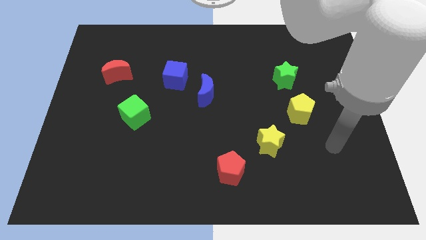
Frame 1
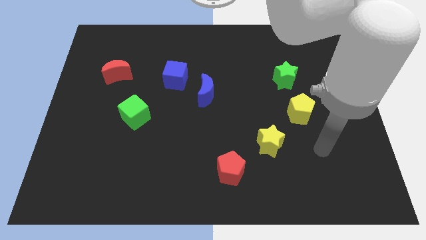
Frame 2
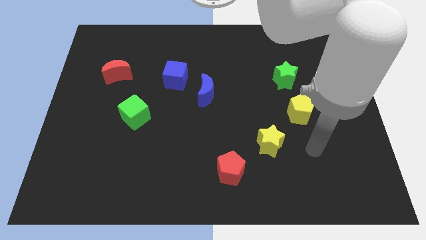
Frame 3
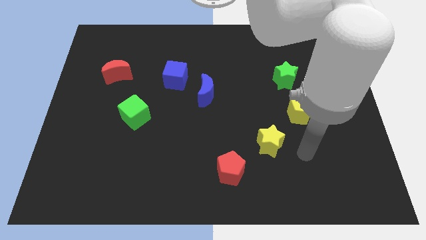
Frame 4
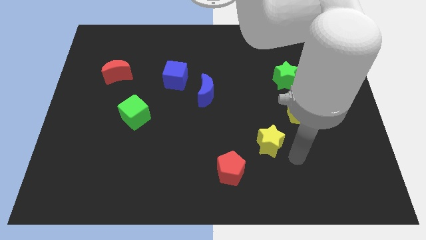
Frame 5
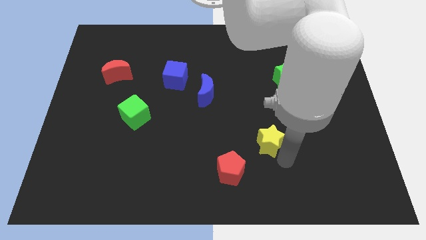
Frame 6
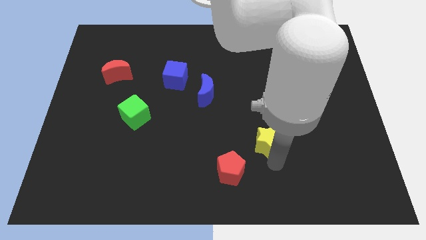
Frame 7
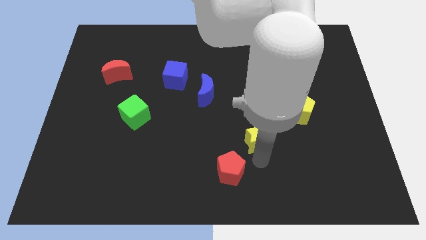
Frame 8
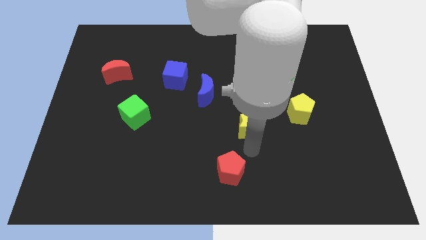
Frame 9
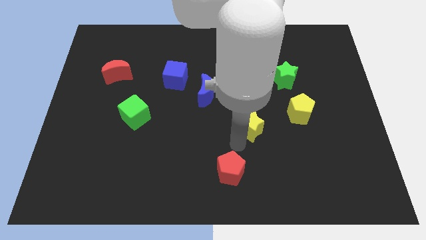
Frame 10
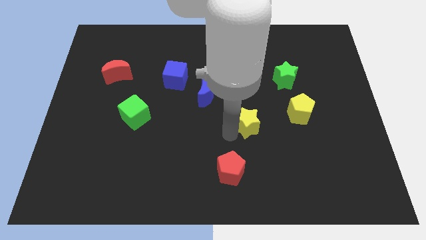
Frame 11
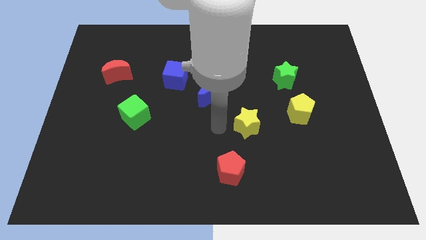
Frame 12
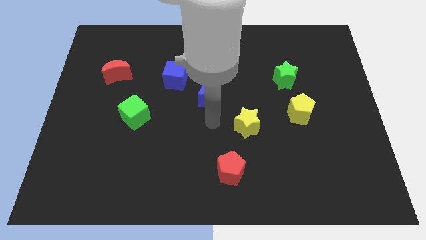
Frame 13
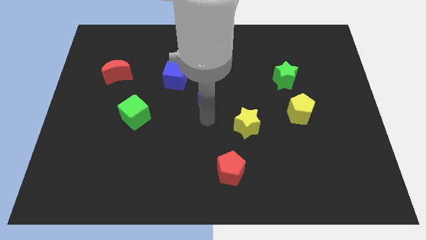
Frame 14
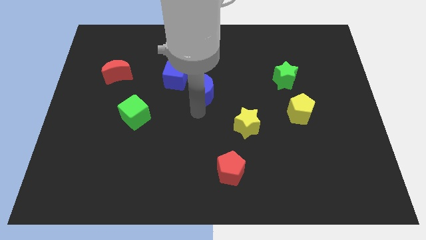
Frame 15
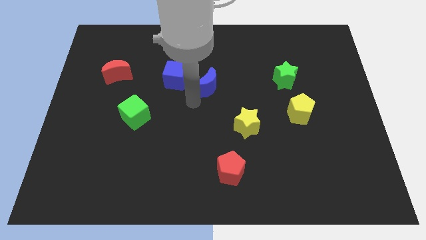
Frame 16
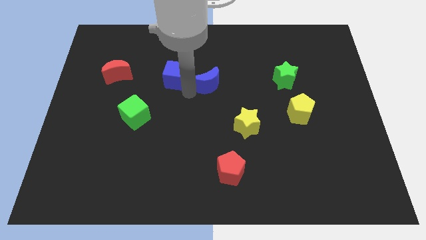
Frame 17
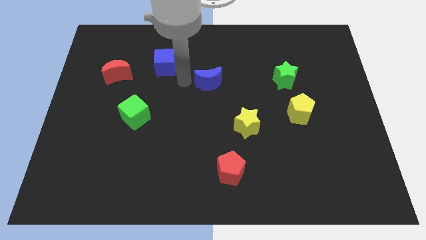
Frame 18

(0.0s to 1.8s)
pull the blue moon apart from the blue cube

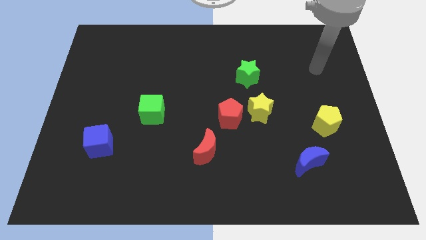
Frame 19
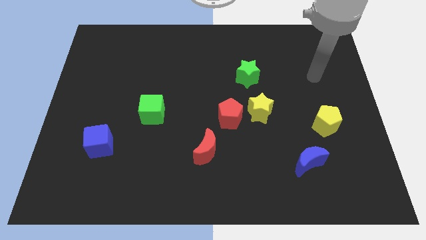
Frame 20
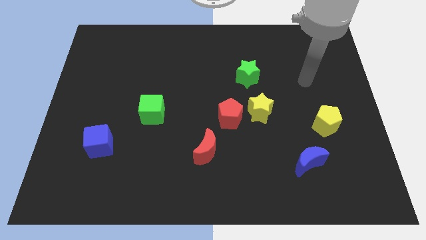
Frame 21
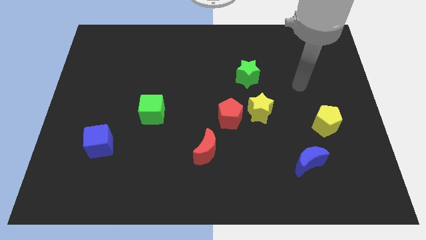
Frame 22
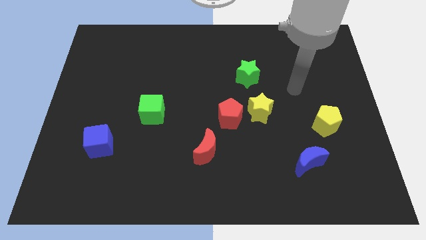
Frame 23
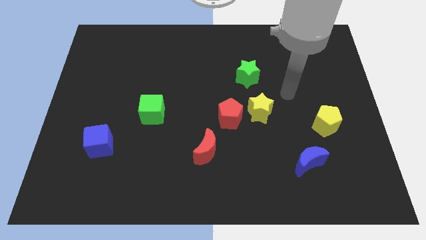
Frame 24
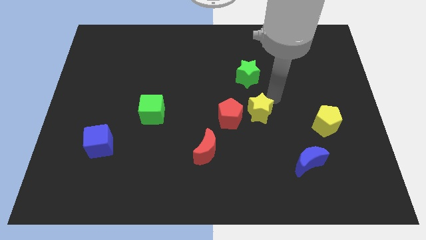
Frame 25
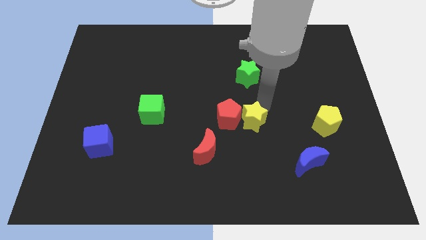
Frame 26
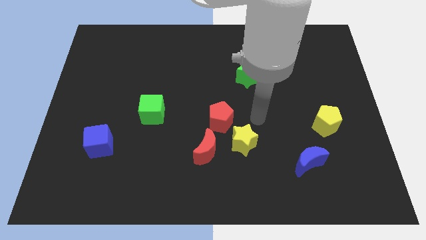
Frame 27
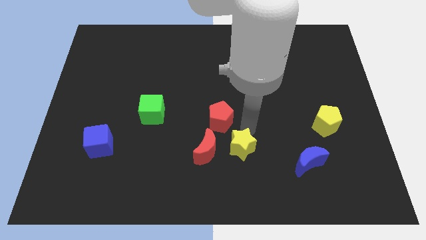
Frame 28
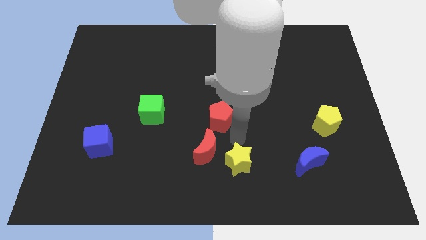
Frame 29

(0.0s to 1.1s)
separate the red pentagon from the yellow star

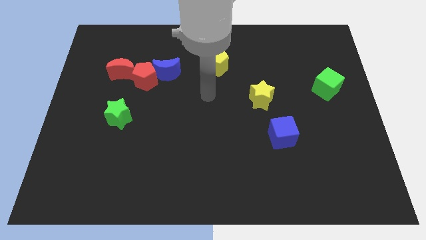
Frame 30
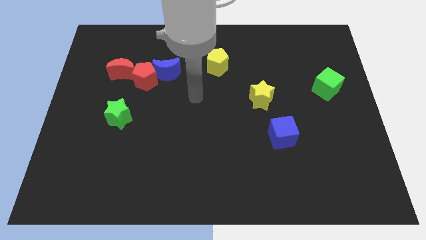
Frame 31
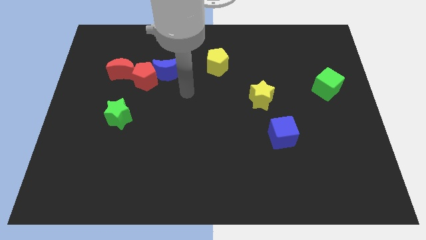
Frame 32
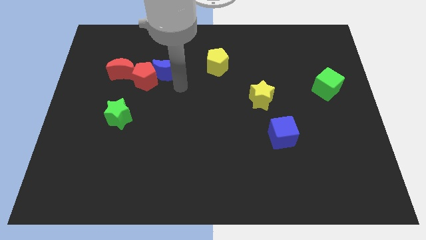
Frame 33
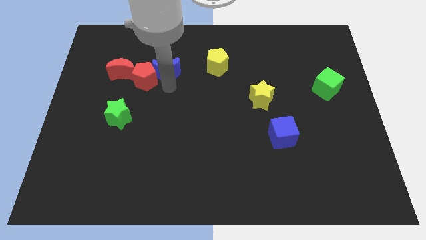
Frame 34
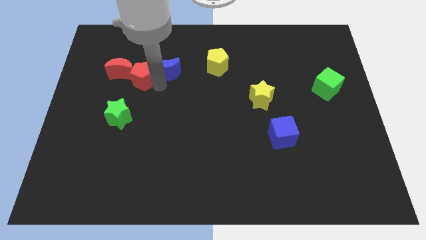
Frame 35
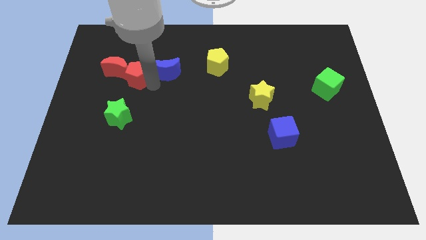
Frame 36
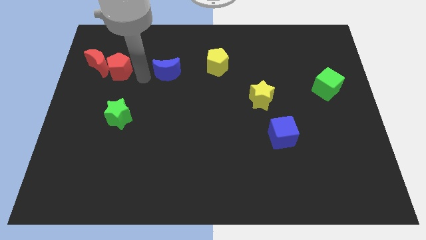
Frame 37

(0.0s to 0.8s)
pull the blue moon apart from the red pentagon

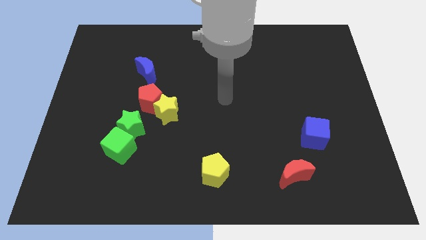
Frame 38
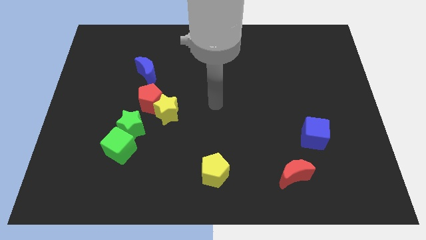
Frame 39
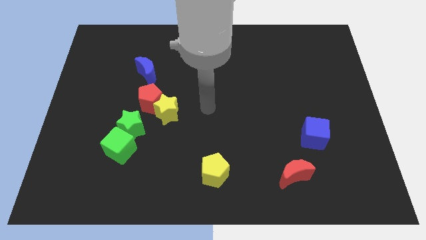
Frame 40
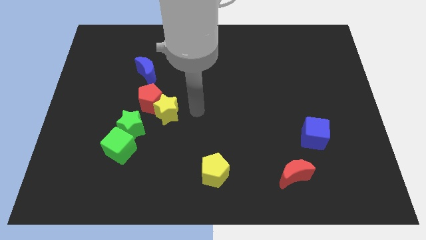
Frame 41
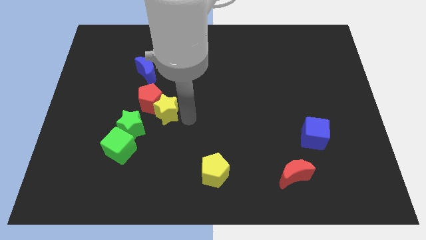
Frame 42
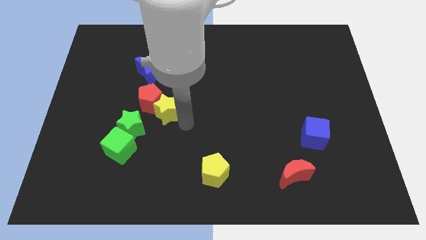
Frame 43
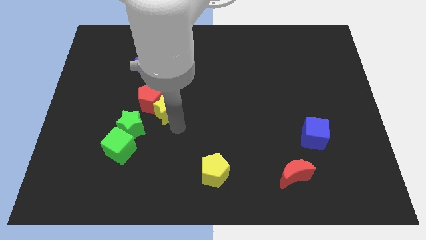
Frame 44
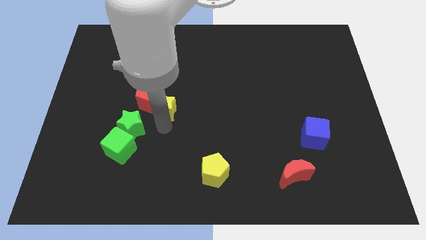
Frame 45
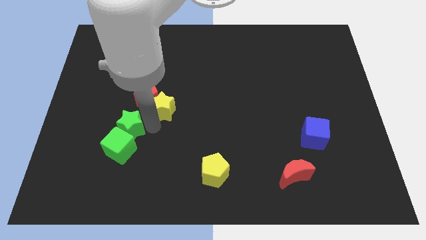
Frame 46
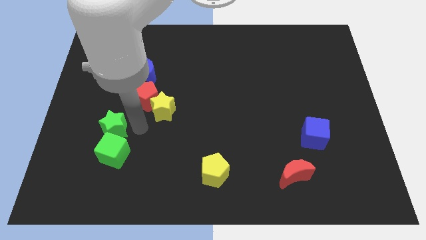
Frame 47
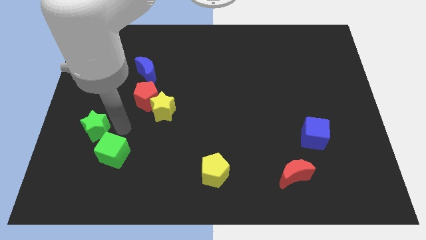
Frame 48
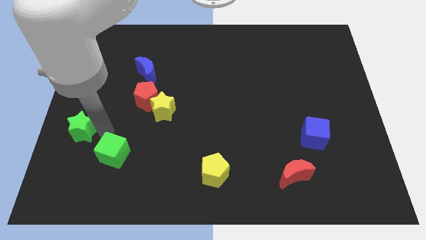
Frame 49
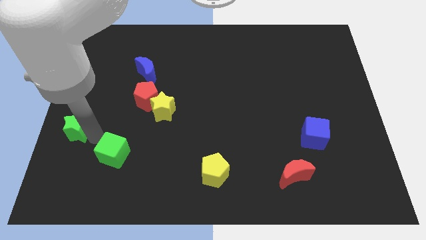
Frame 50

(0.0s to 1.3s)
move the green cube away from the green star

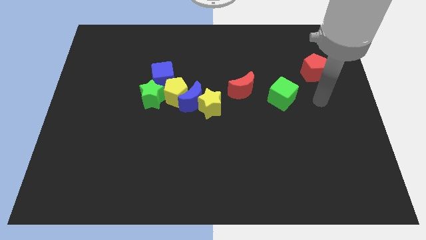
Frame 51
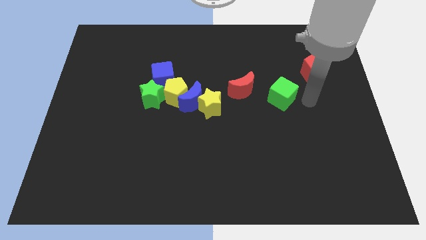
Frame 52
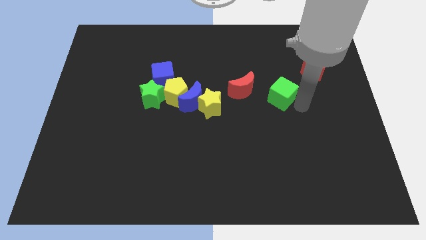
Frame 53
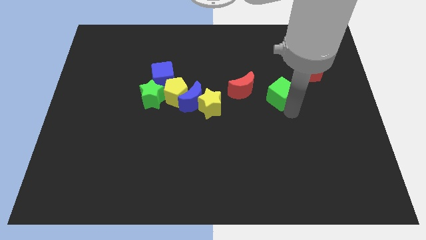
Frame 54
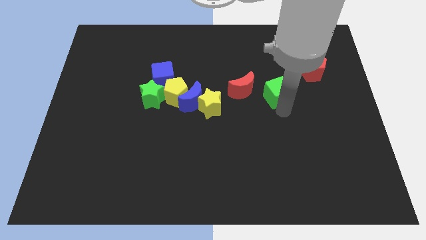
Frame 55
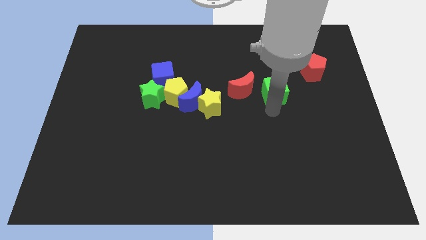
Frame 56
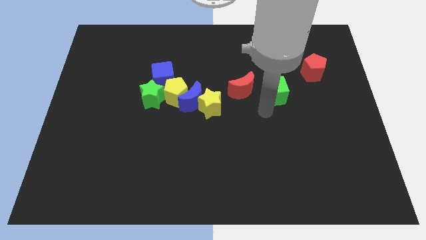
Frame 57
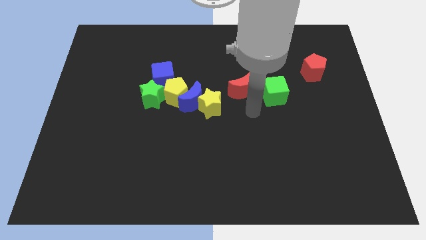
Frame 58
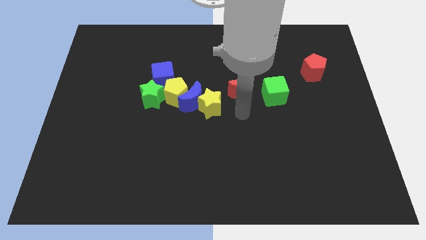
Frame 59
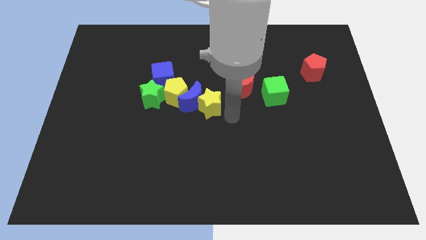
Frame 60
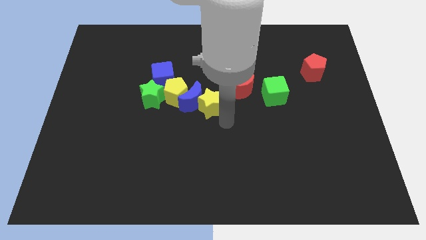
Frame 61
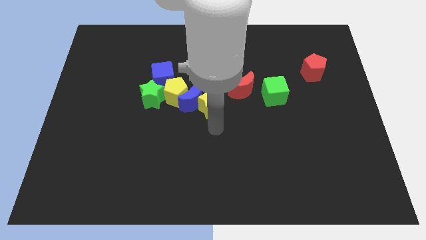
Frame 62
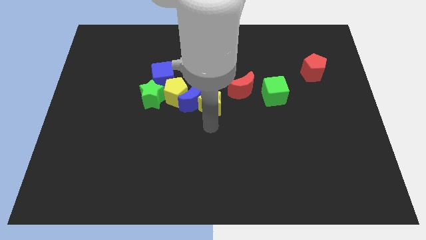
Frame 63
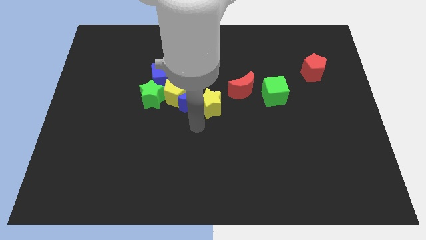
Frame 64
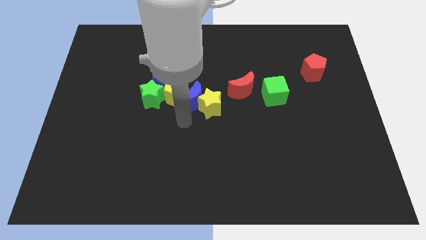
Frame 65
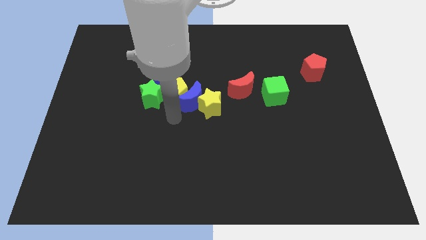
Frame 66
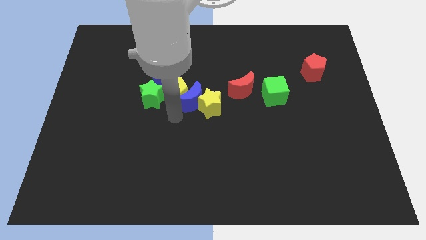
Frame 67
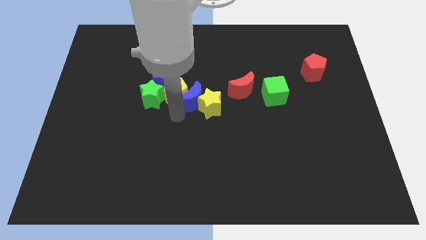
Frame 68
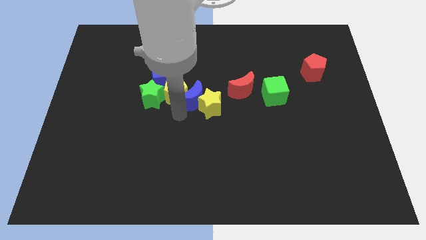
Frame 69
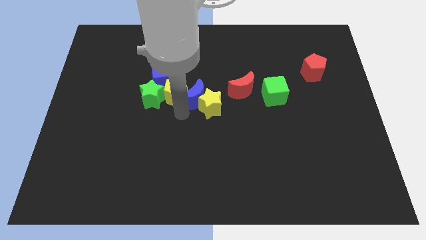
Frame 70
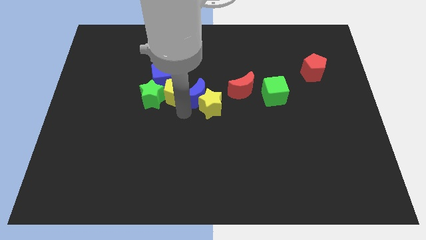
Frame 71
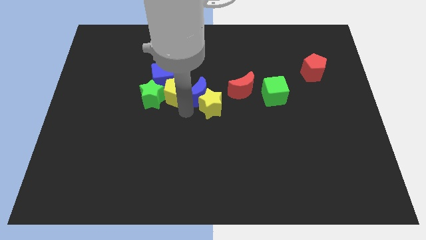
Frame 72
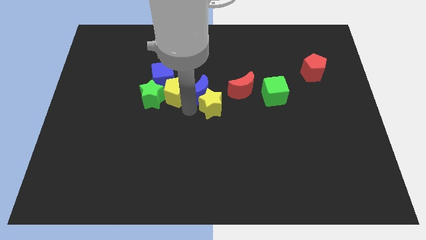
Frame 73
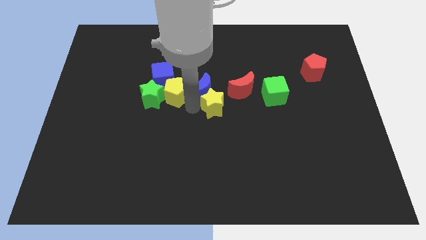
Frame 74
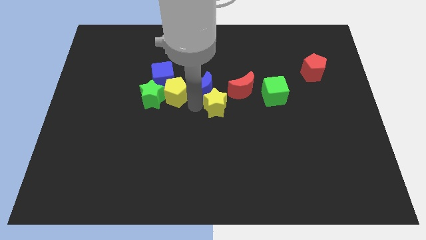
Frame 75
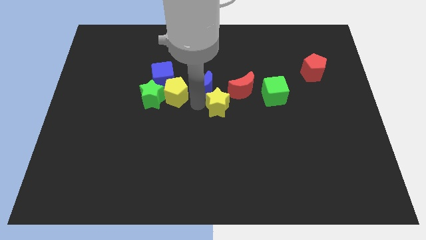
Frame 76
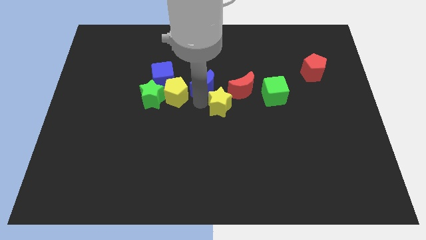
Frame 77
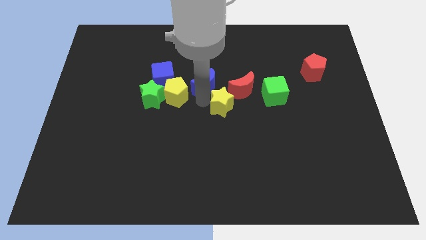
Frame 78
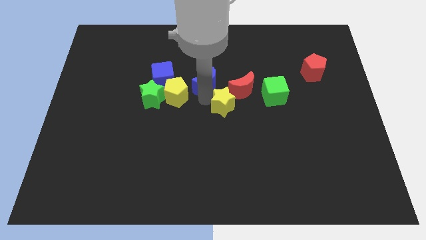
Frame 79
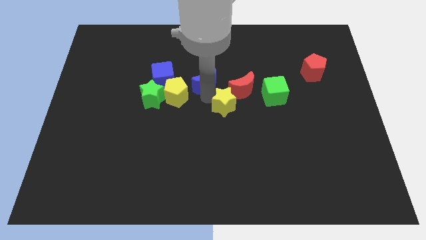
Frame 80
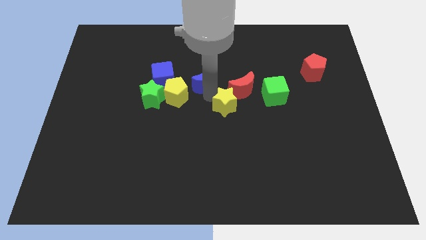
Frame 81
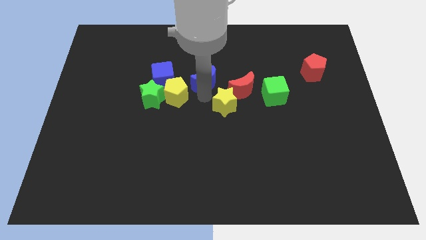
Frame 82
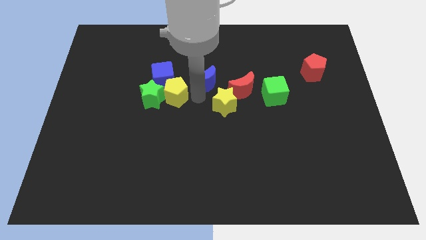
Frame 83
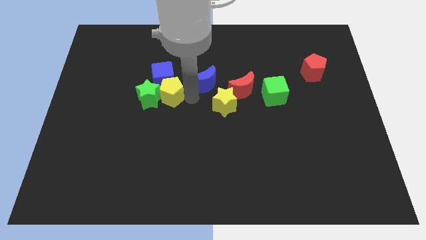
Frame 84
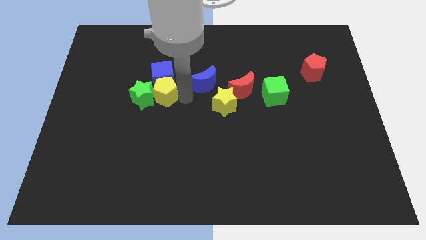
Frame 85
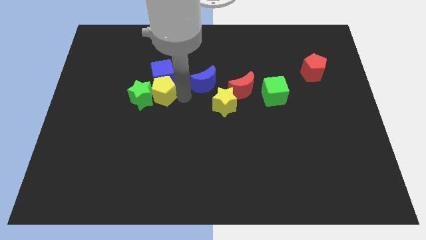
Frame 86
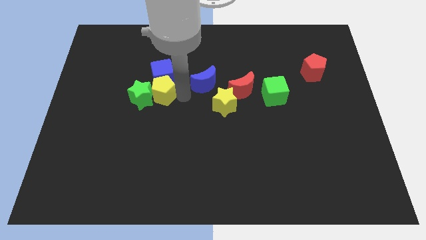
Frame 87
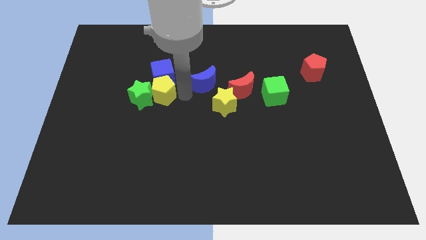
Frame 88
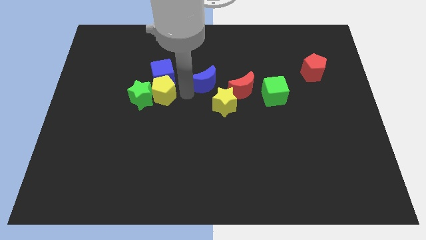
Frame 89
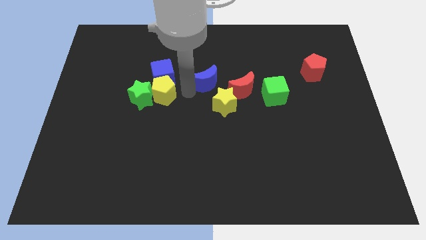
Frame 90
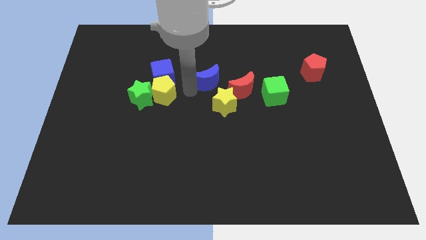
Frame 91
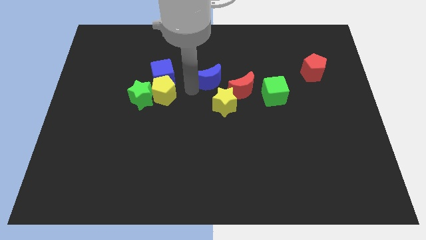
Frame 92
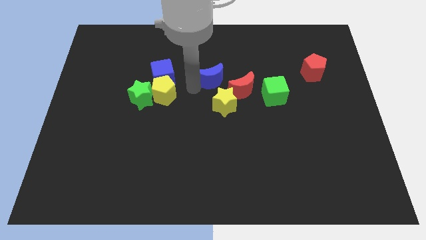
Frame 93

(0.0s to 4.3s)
pull the blue moon apart from the yellow star, yellow pentagon, and green star
